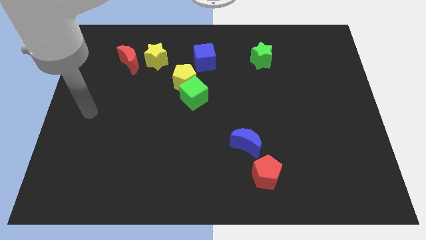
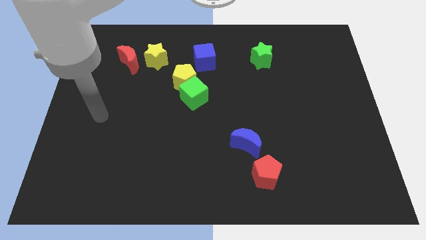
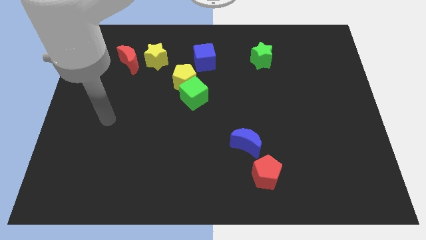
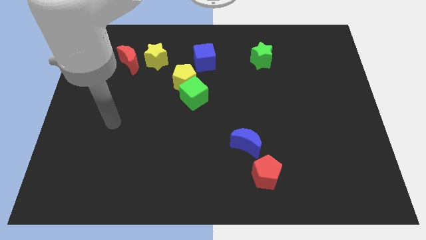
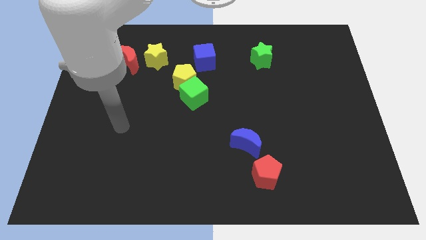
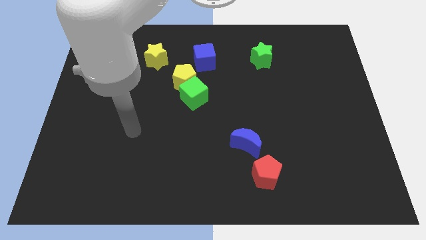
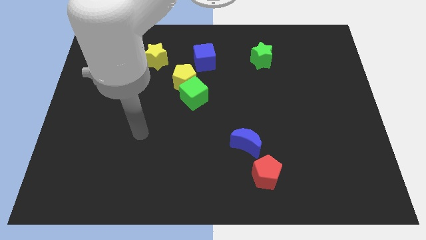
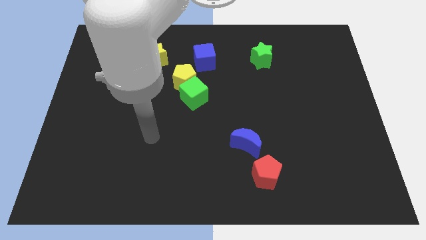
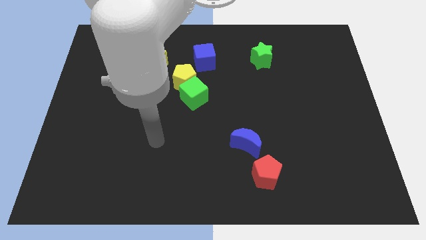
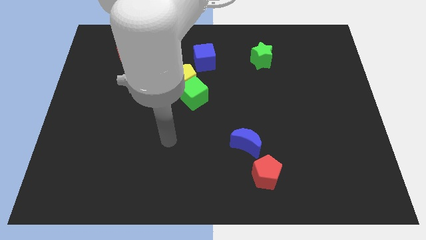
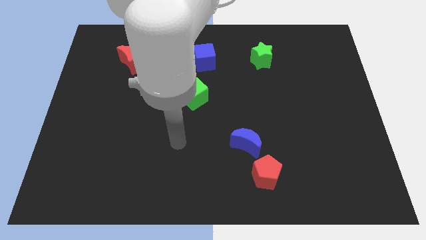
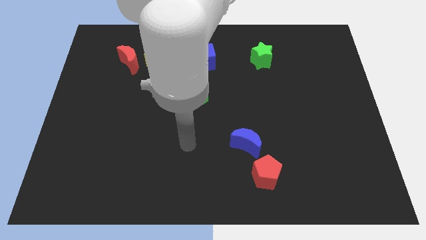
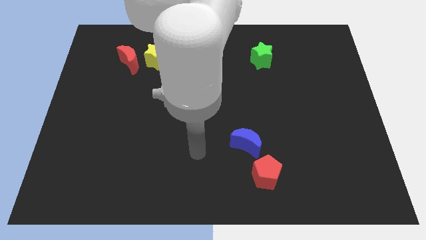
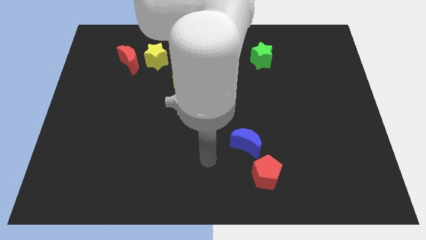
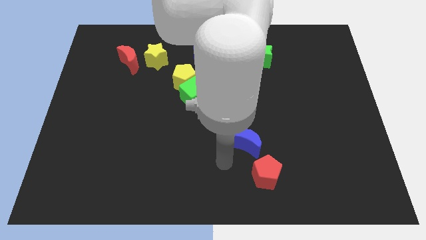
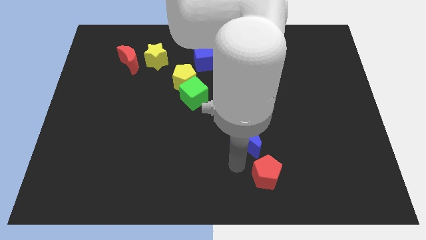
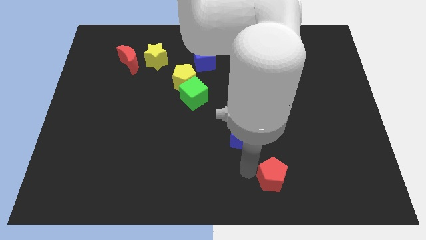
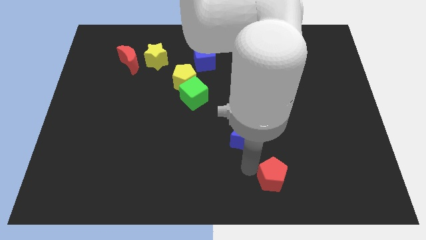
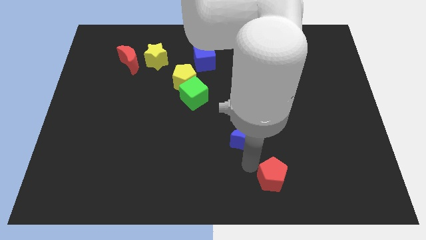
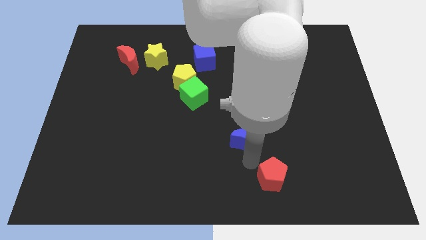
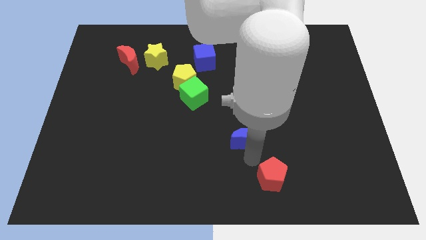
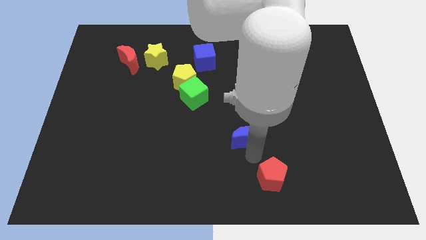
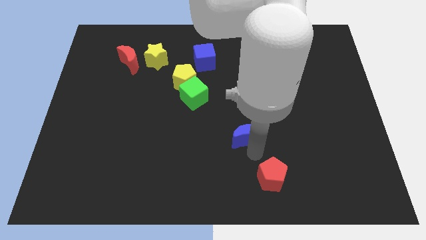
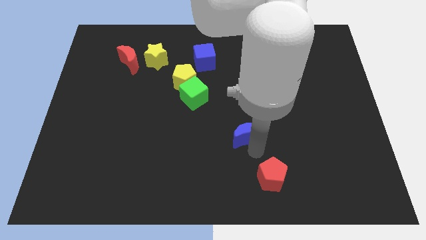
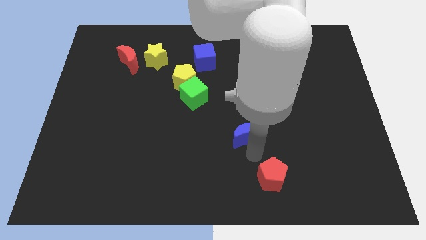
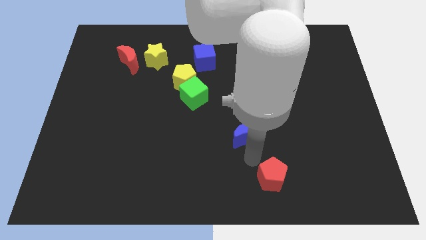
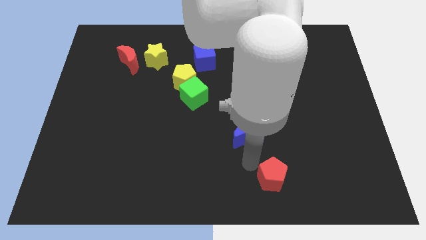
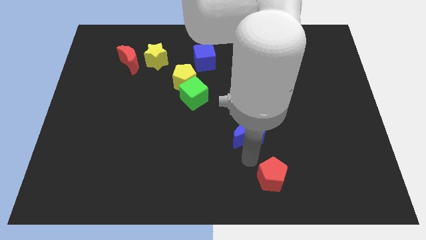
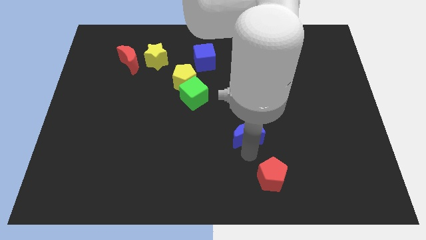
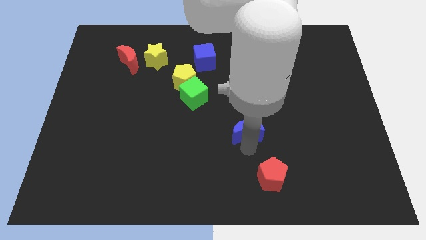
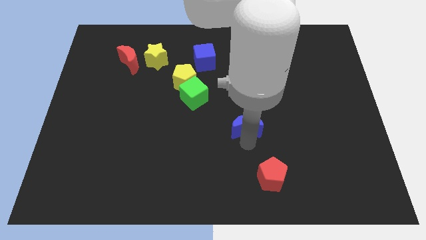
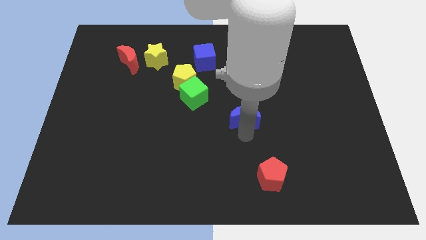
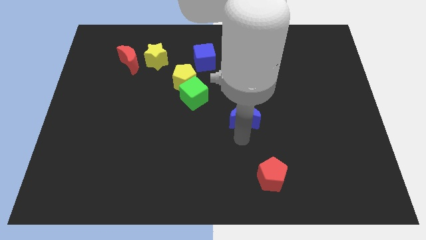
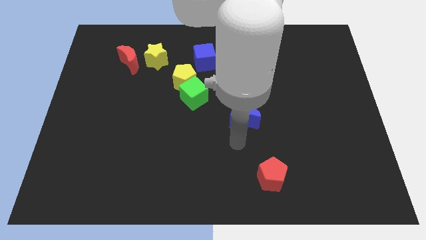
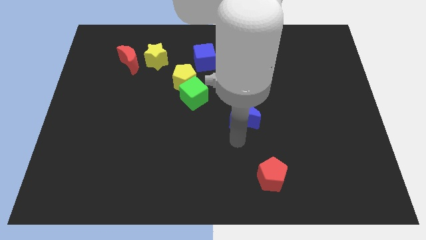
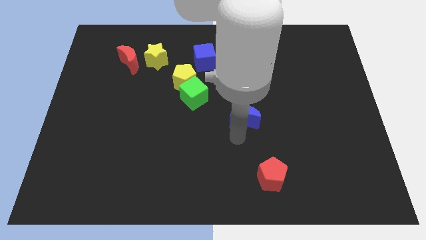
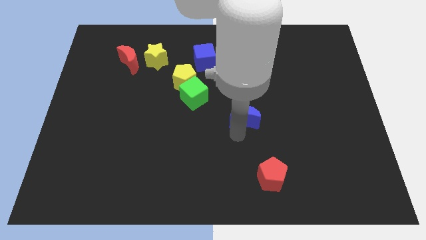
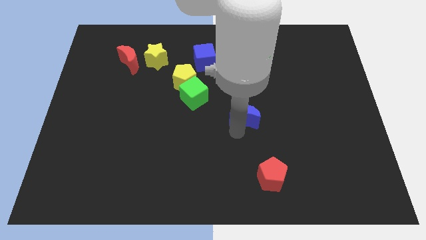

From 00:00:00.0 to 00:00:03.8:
push the blue moon a bit up

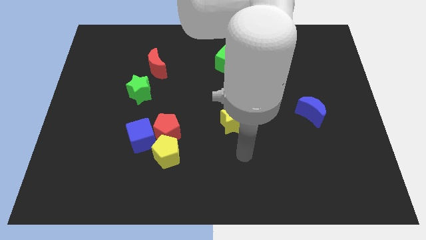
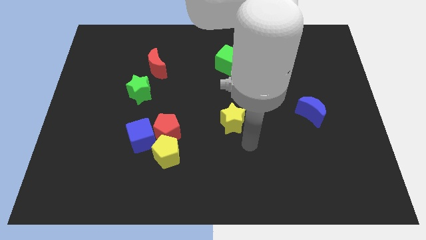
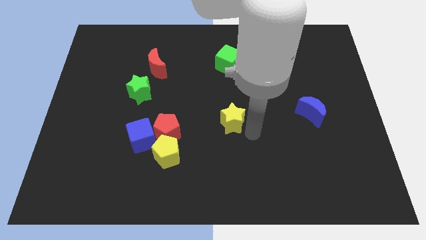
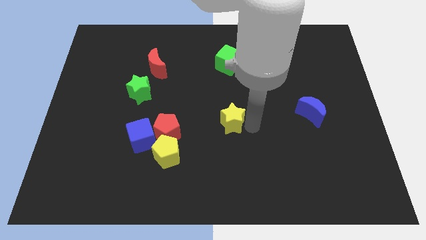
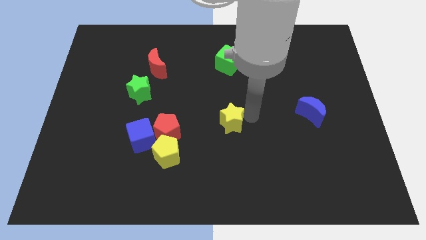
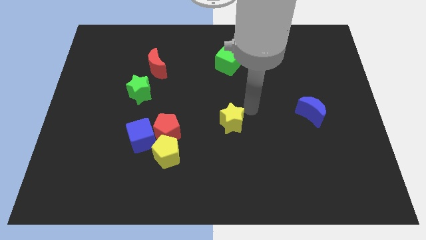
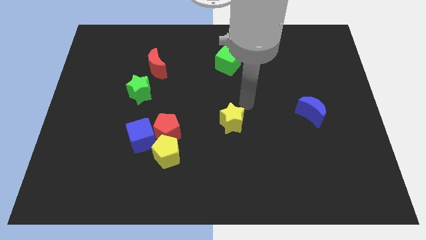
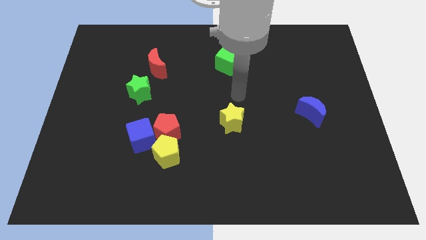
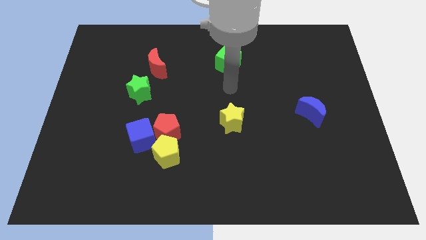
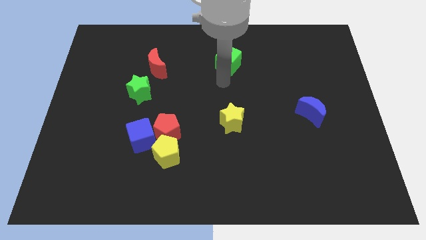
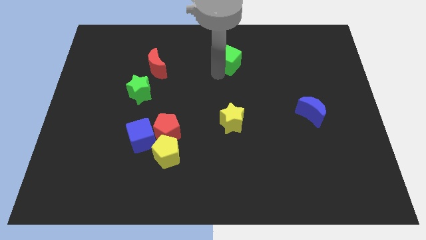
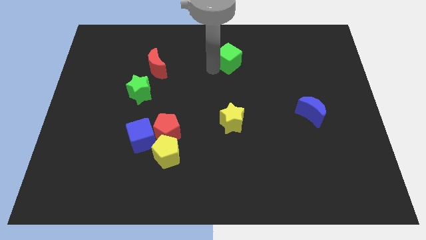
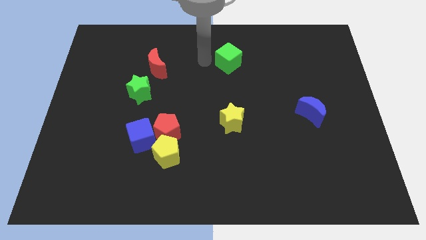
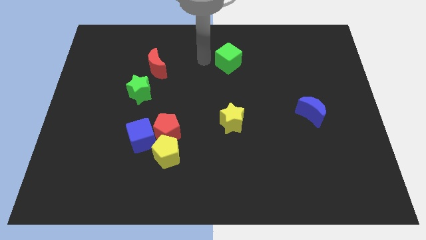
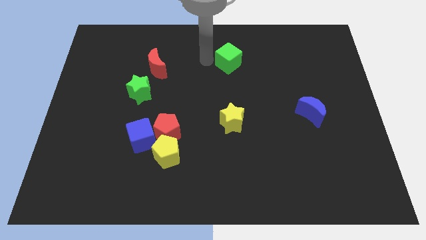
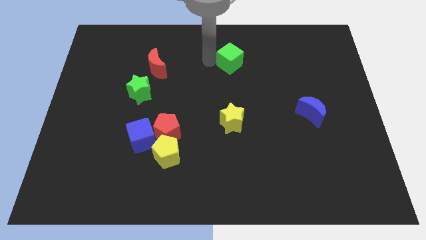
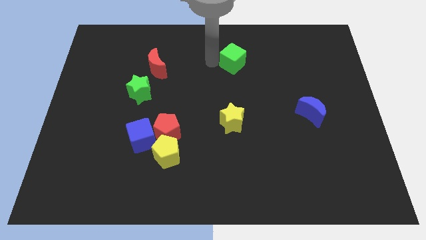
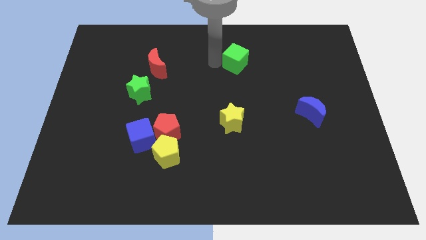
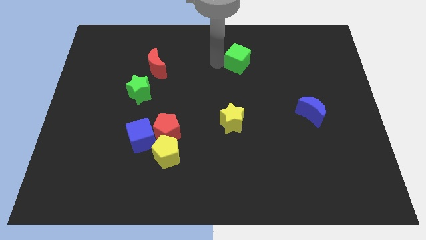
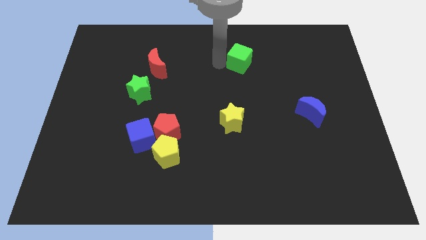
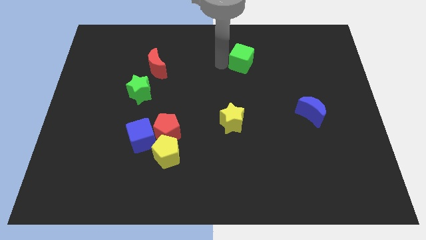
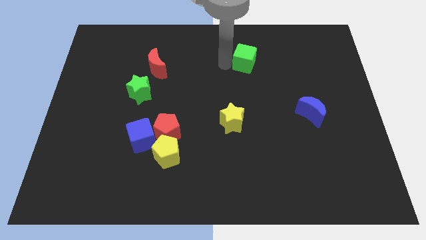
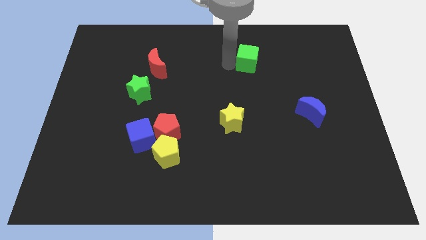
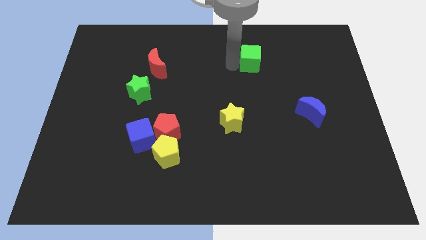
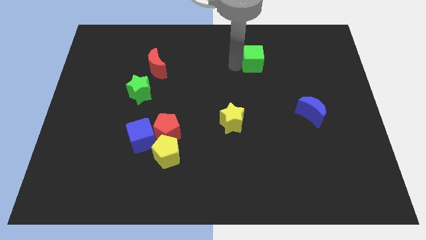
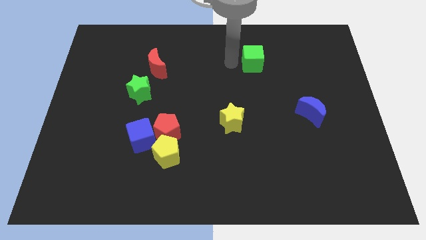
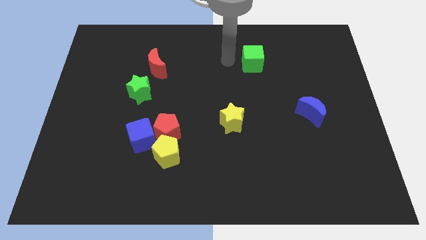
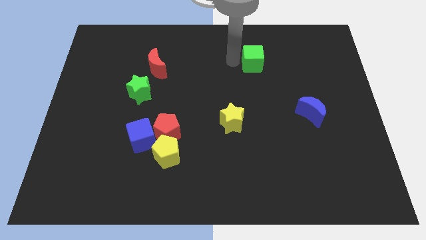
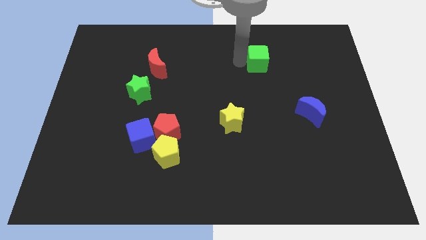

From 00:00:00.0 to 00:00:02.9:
push the green cube somewhat right

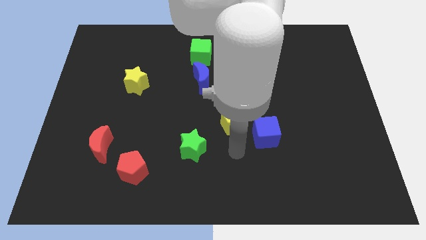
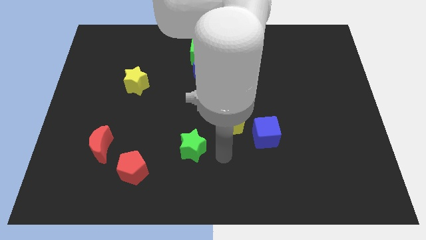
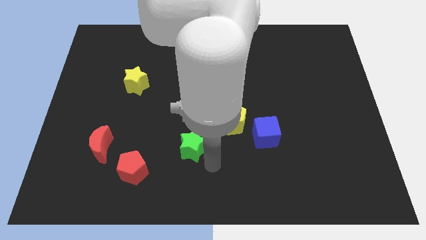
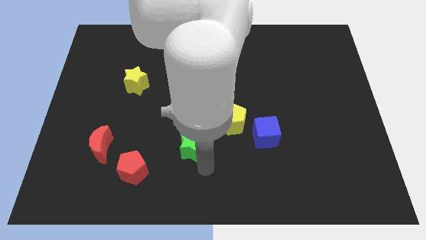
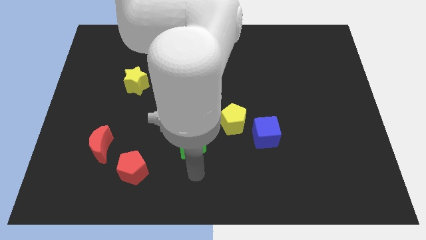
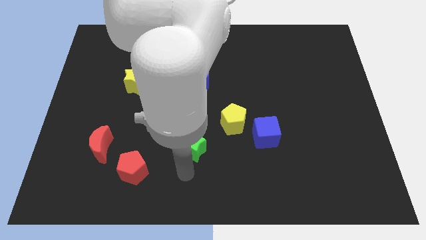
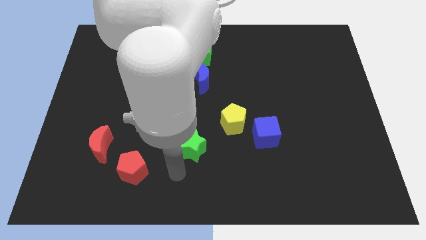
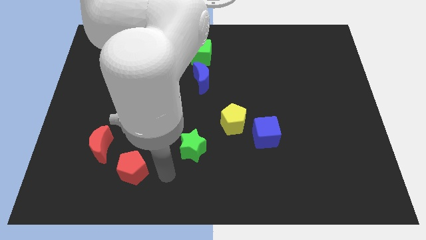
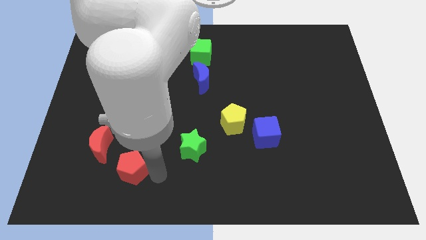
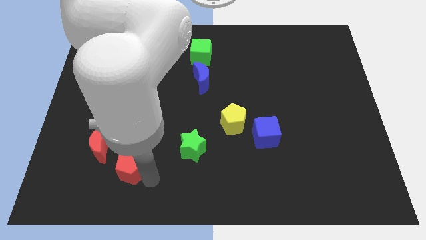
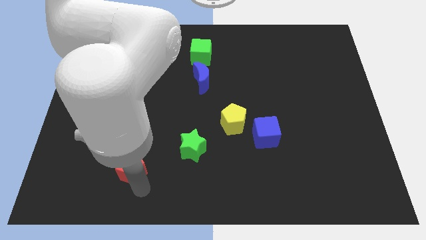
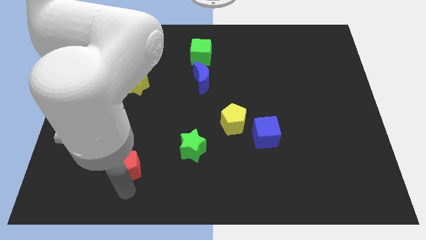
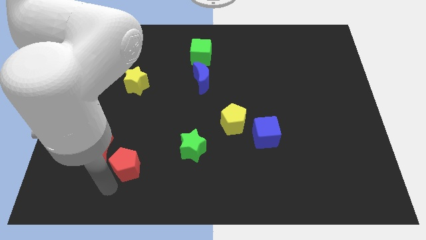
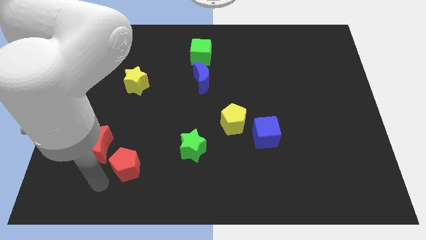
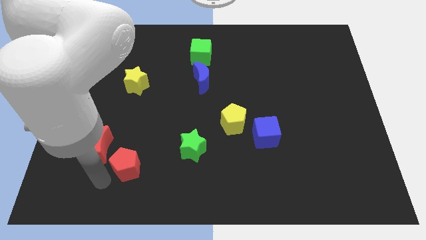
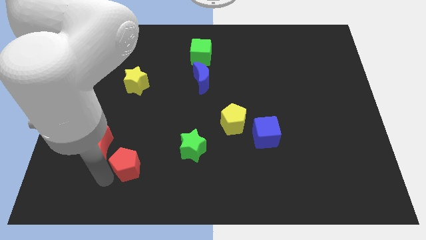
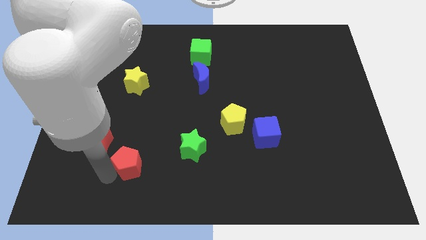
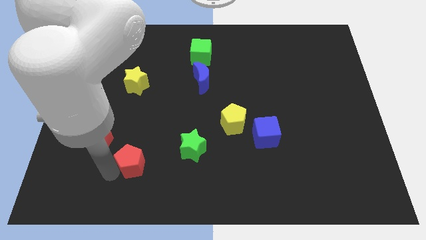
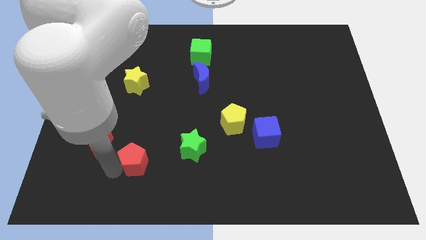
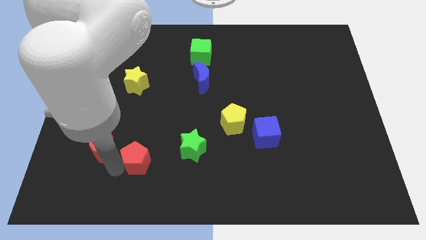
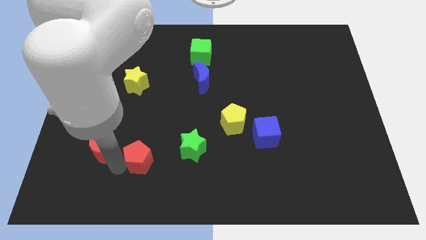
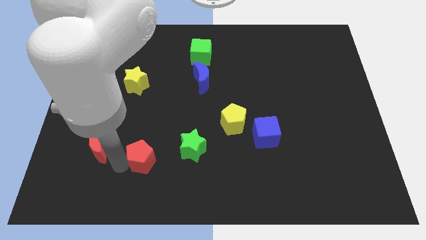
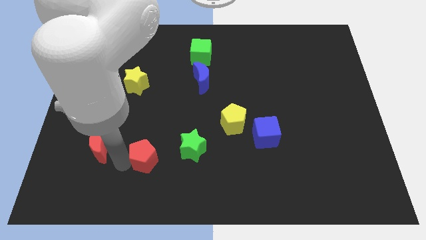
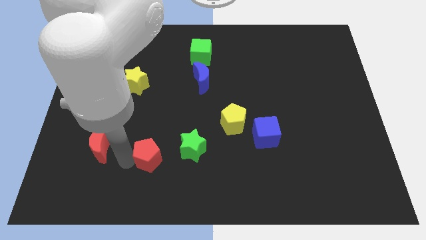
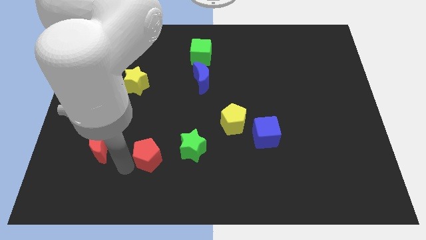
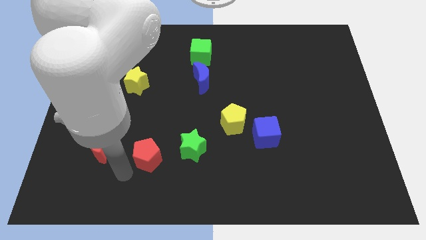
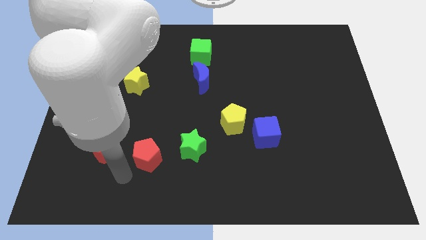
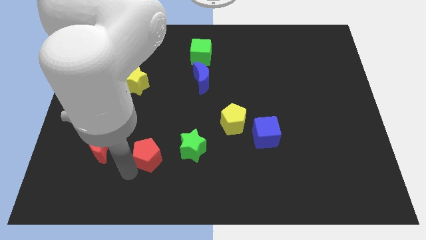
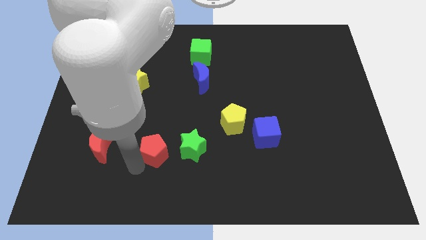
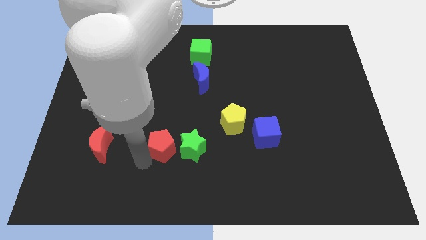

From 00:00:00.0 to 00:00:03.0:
slightly slide the red pentagon up and right
